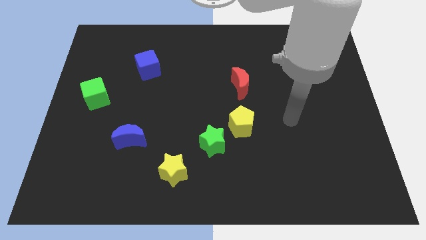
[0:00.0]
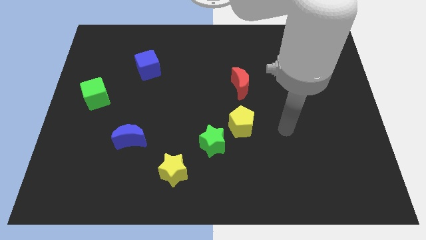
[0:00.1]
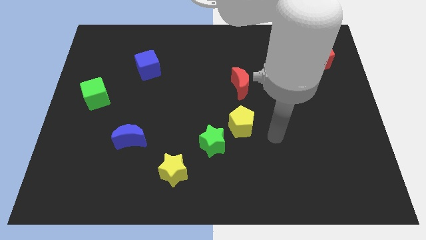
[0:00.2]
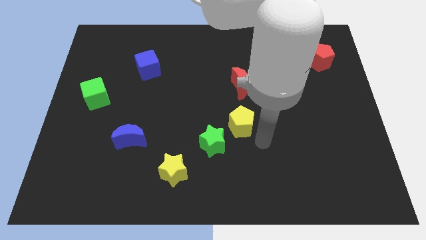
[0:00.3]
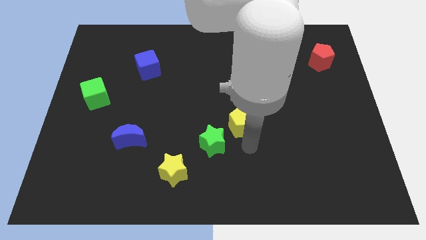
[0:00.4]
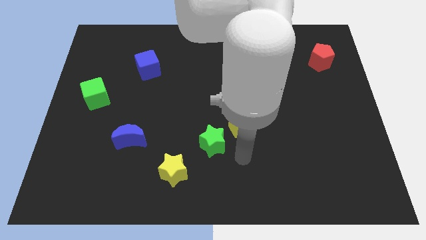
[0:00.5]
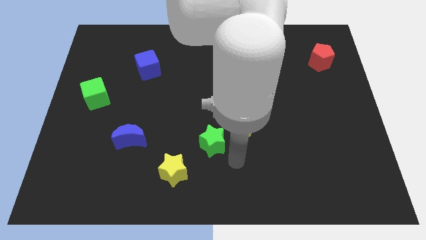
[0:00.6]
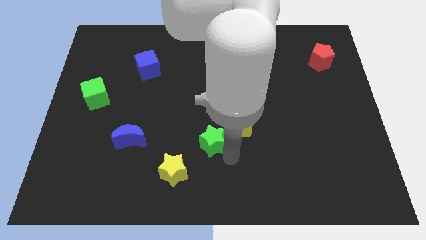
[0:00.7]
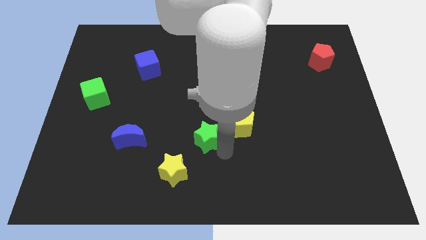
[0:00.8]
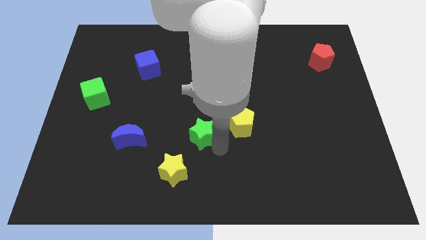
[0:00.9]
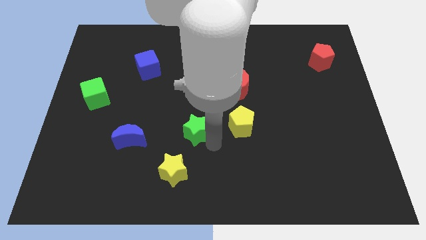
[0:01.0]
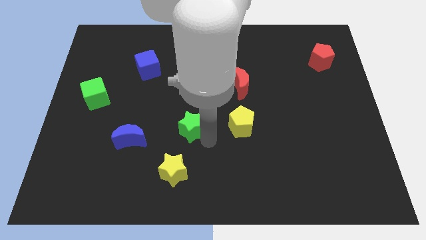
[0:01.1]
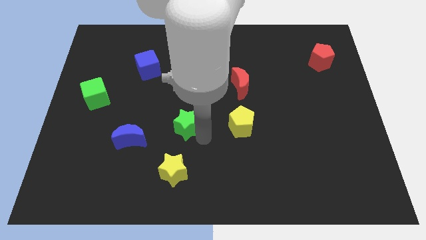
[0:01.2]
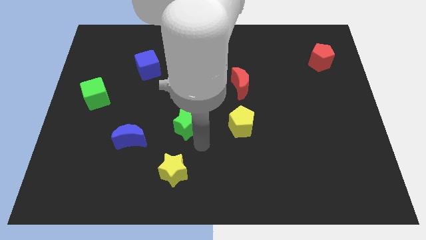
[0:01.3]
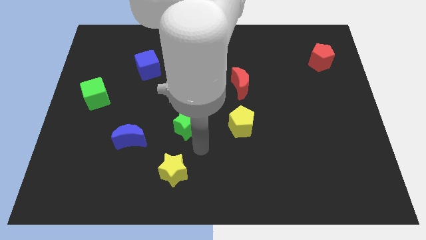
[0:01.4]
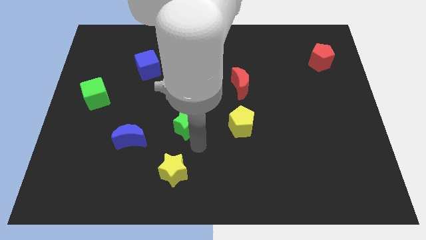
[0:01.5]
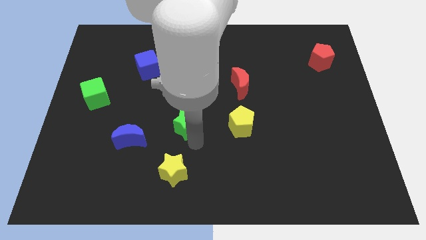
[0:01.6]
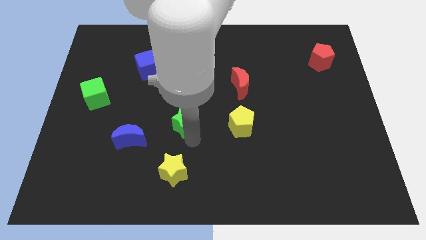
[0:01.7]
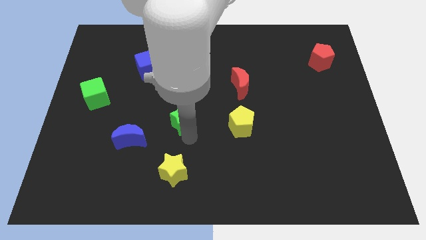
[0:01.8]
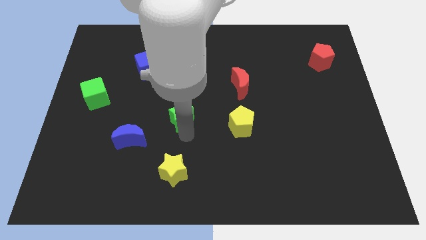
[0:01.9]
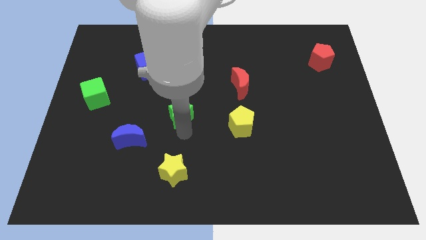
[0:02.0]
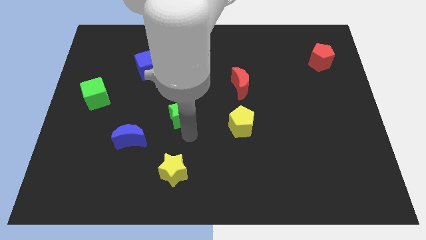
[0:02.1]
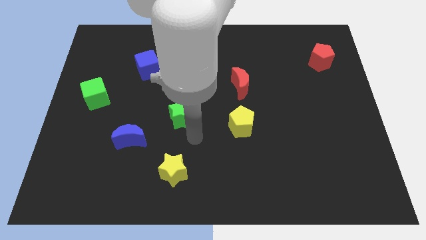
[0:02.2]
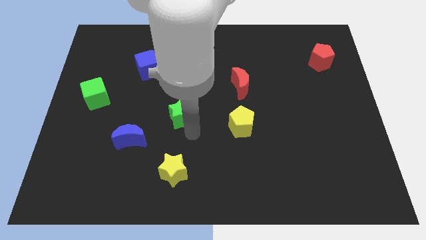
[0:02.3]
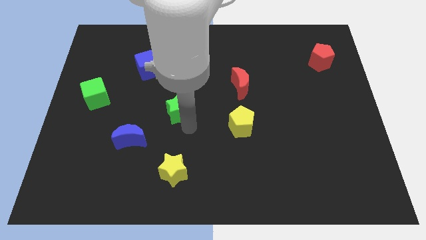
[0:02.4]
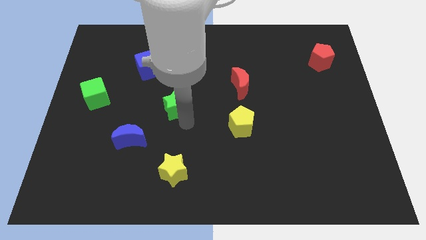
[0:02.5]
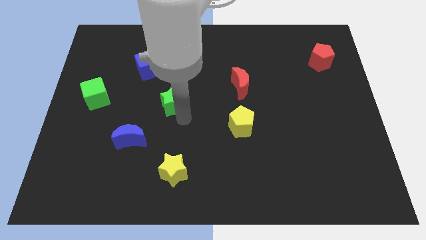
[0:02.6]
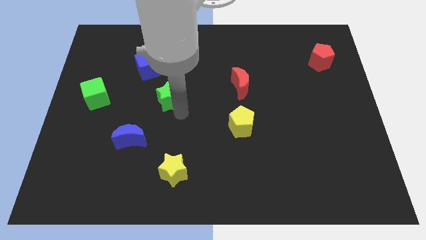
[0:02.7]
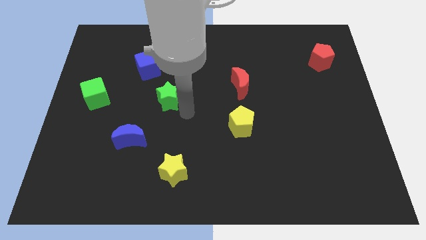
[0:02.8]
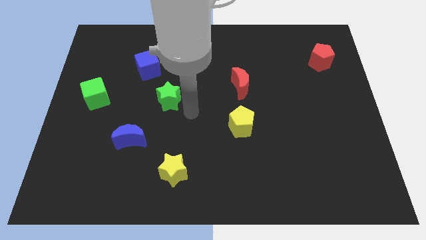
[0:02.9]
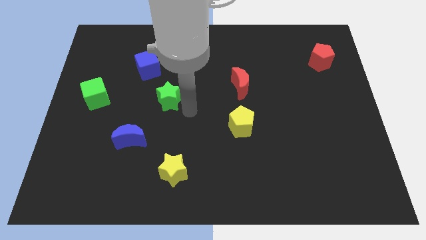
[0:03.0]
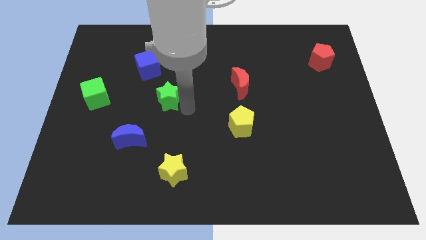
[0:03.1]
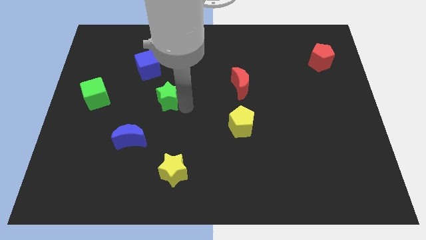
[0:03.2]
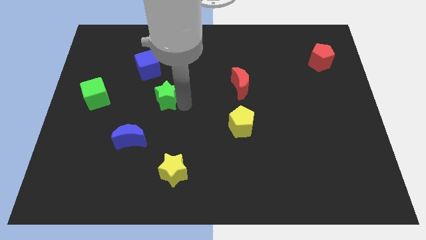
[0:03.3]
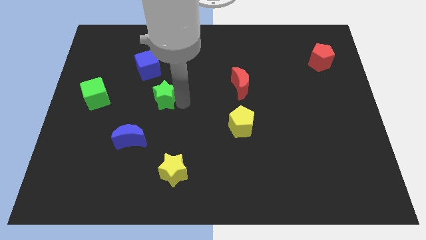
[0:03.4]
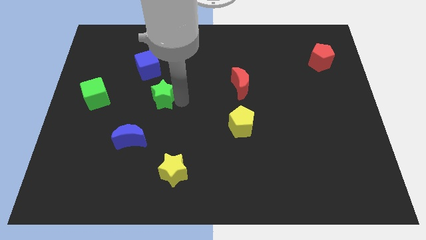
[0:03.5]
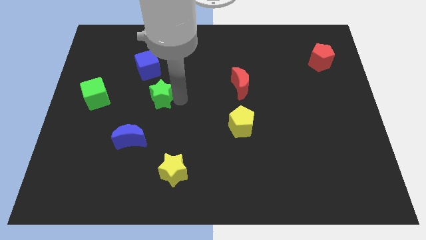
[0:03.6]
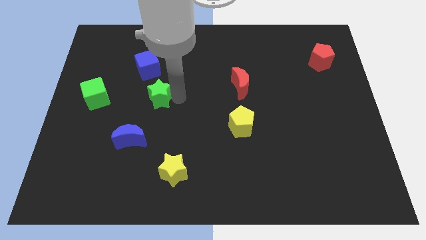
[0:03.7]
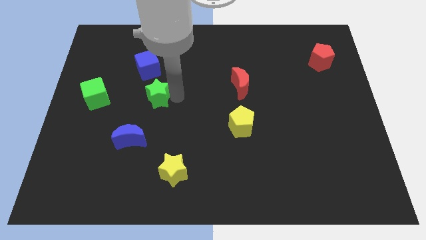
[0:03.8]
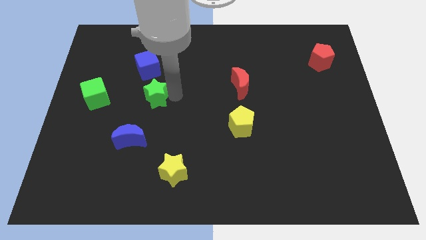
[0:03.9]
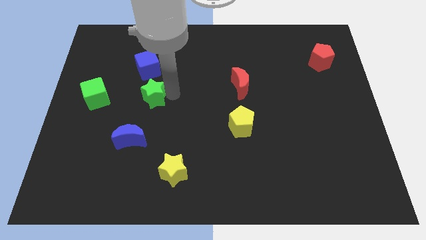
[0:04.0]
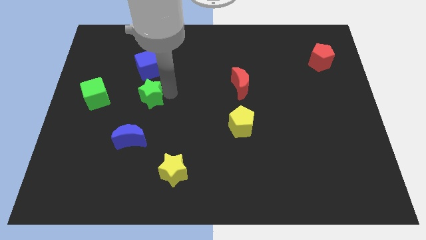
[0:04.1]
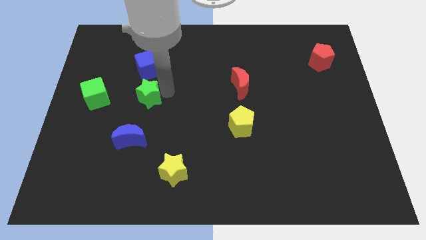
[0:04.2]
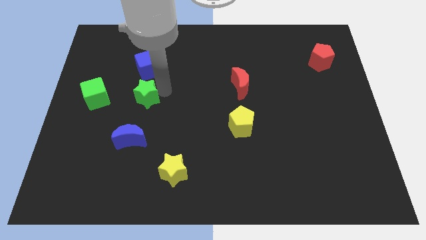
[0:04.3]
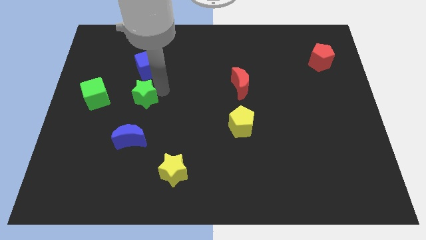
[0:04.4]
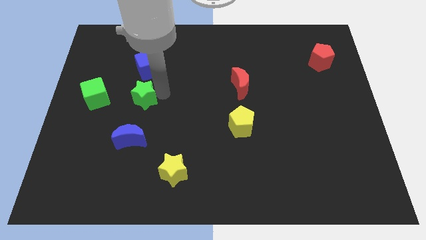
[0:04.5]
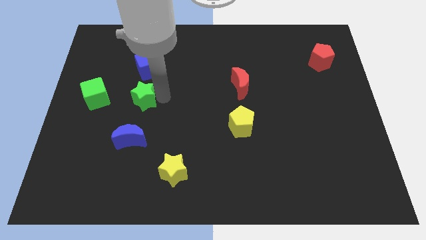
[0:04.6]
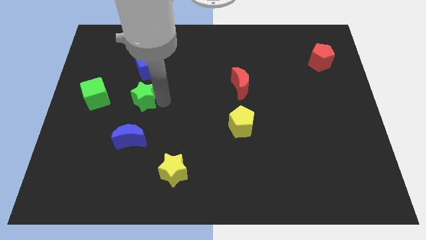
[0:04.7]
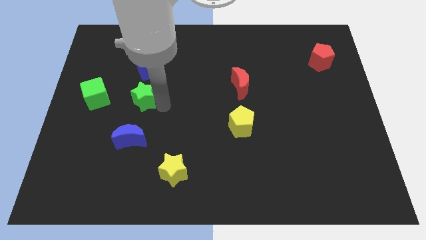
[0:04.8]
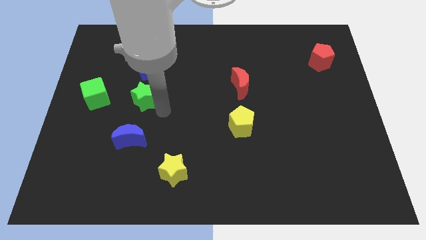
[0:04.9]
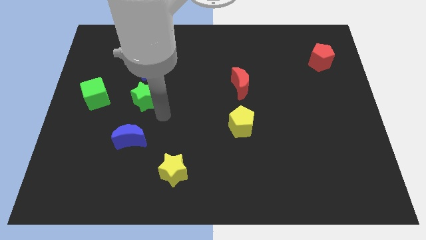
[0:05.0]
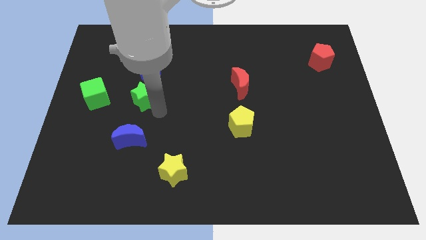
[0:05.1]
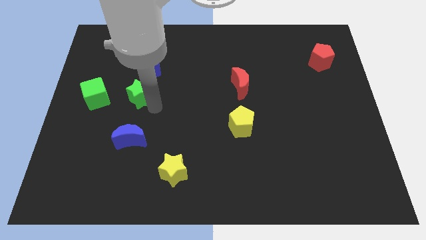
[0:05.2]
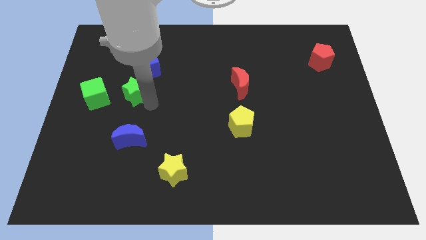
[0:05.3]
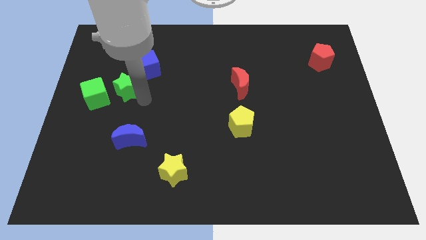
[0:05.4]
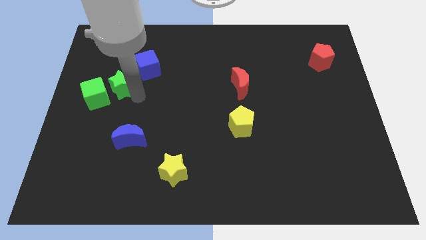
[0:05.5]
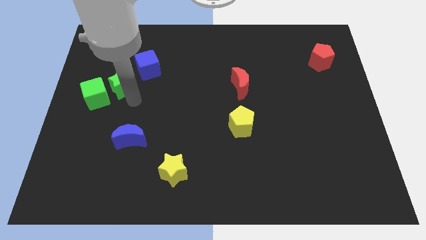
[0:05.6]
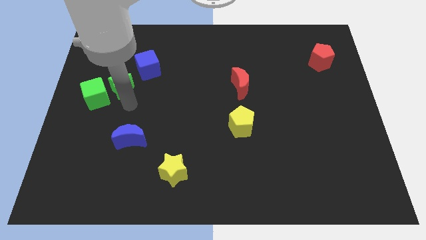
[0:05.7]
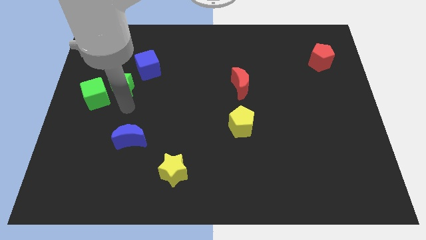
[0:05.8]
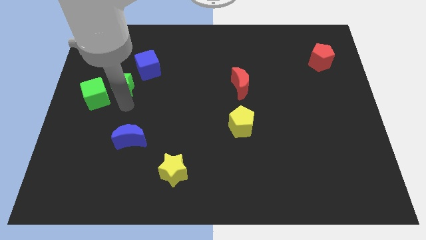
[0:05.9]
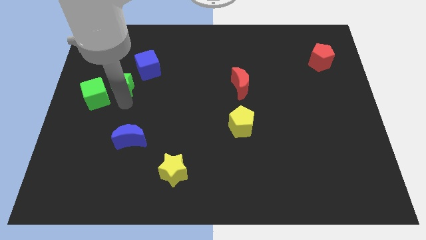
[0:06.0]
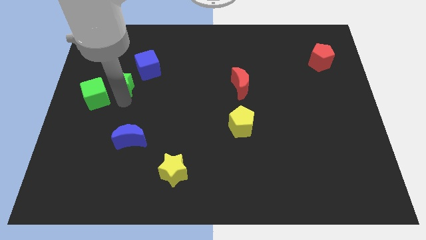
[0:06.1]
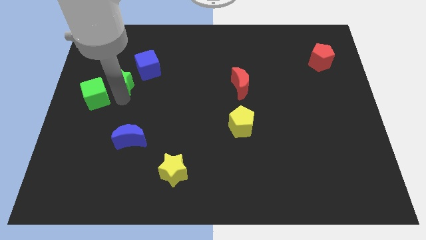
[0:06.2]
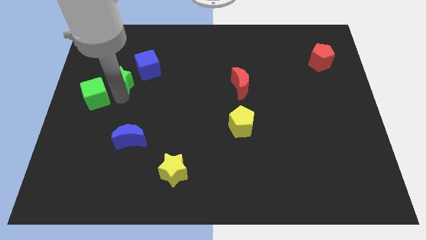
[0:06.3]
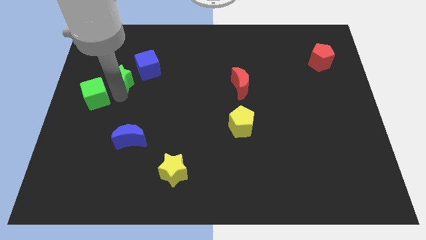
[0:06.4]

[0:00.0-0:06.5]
push the green star to the left of the blue cube

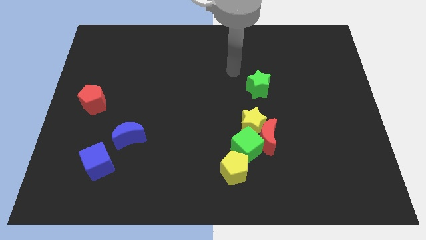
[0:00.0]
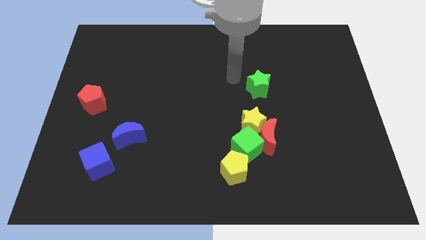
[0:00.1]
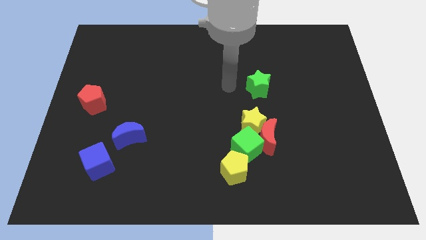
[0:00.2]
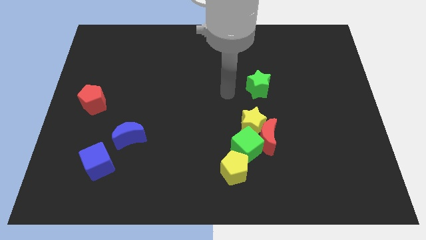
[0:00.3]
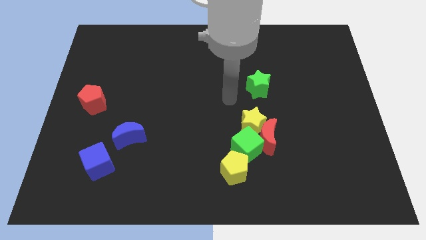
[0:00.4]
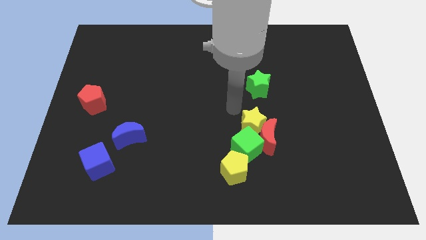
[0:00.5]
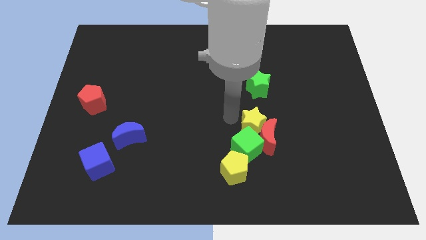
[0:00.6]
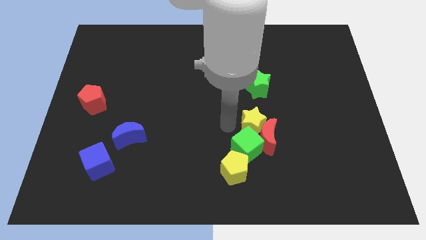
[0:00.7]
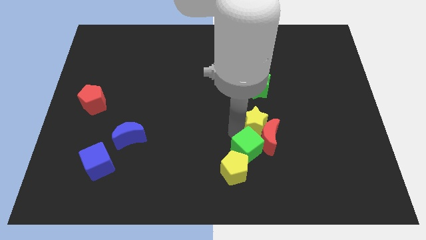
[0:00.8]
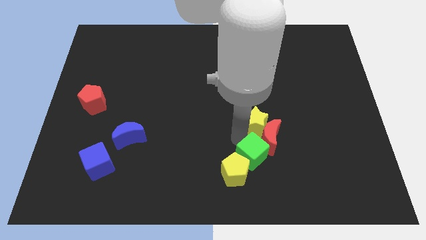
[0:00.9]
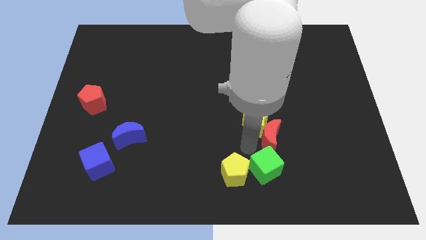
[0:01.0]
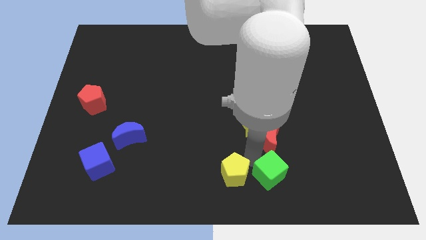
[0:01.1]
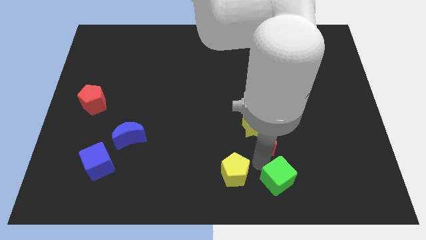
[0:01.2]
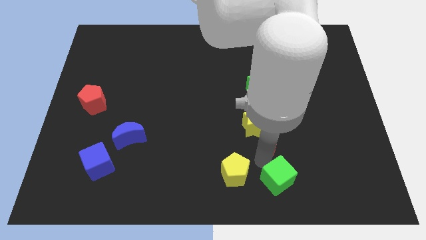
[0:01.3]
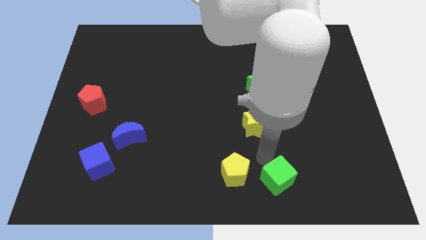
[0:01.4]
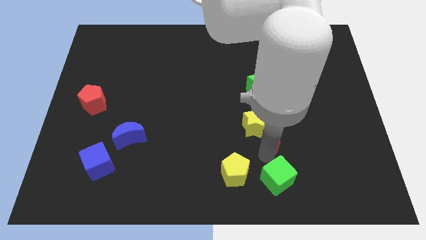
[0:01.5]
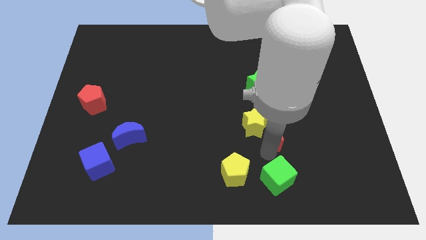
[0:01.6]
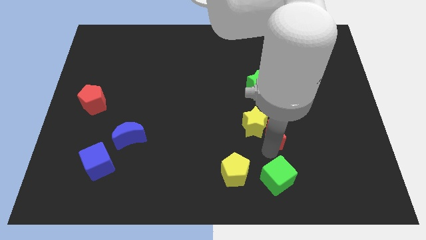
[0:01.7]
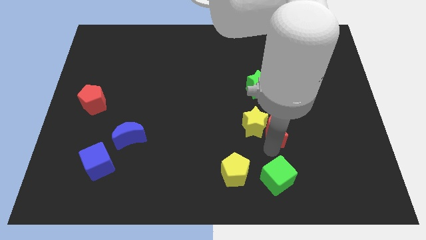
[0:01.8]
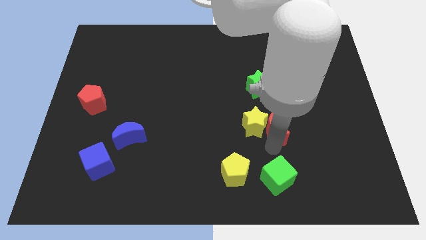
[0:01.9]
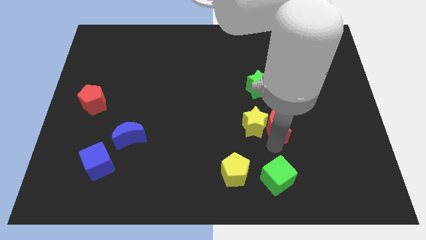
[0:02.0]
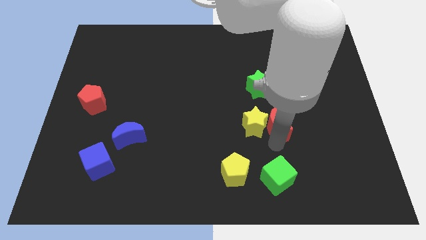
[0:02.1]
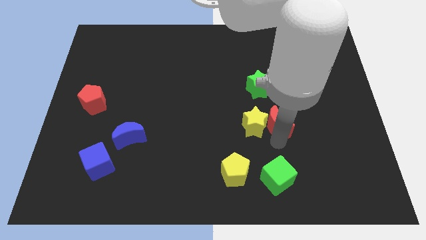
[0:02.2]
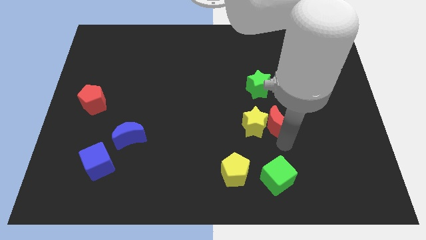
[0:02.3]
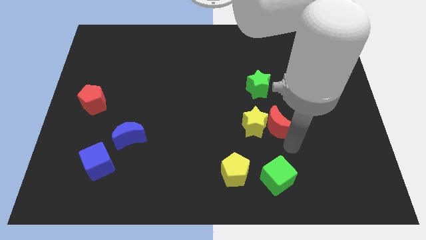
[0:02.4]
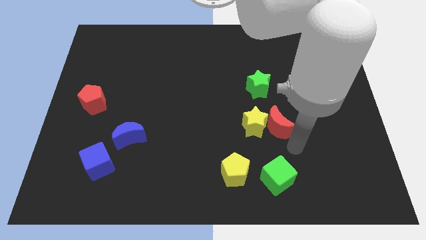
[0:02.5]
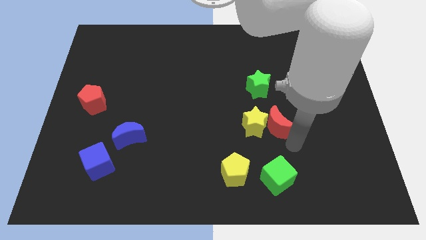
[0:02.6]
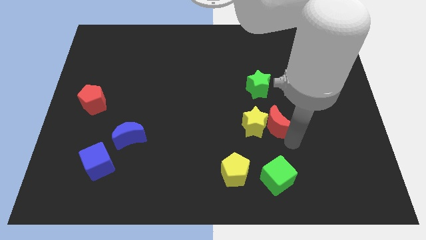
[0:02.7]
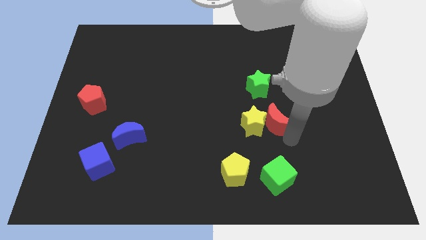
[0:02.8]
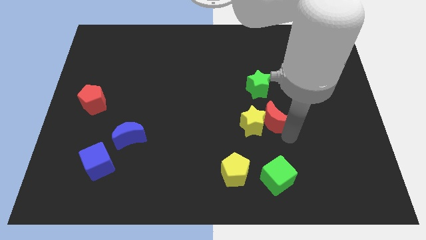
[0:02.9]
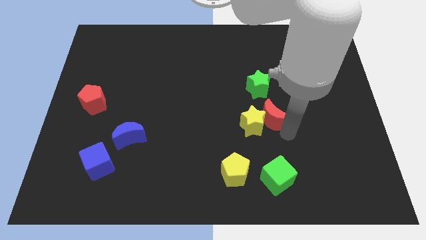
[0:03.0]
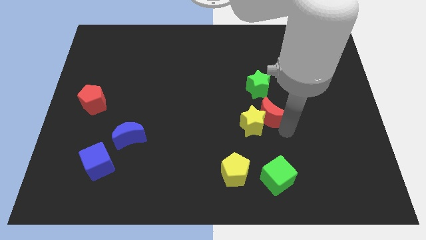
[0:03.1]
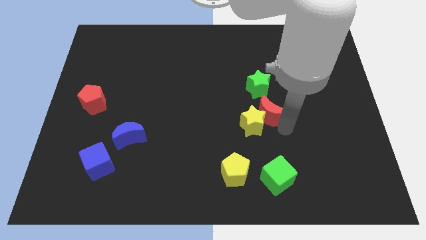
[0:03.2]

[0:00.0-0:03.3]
move the red moon to the top of the yellow star
